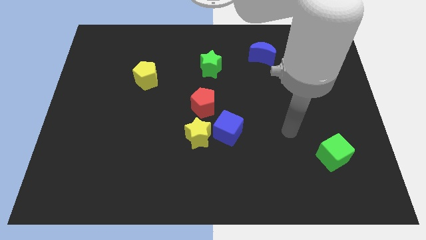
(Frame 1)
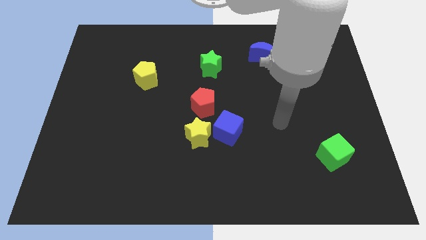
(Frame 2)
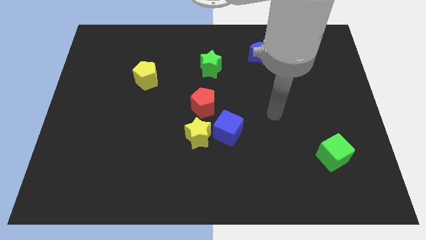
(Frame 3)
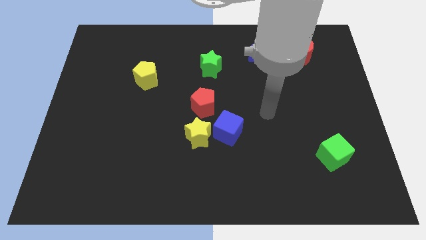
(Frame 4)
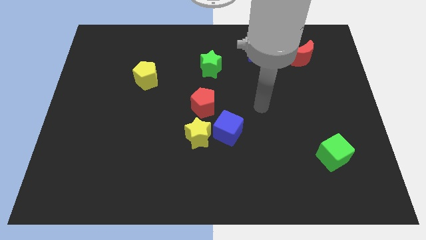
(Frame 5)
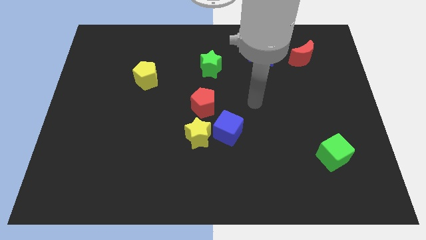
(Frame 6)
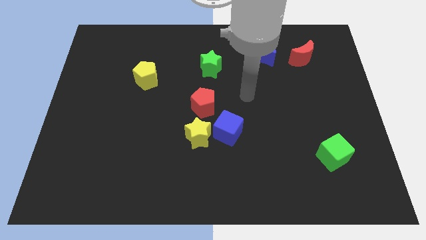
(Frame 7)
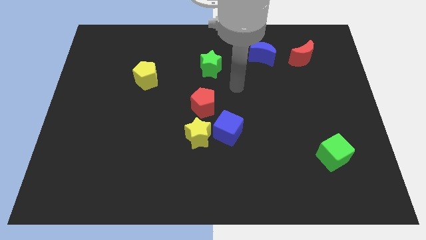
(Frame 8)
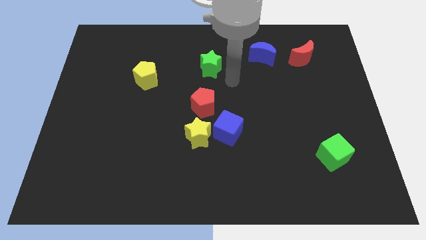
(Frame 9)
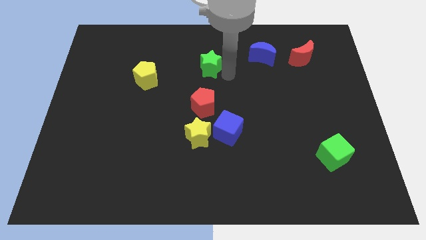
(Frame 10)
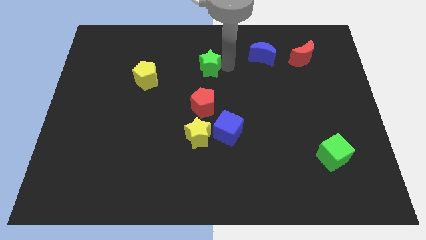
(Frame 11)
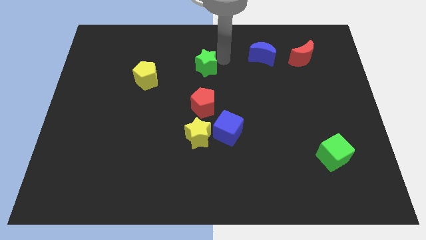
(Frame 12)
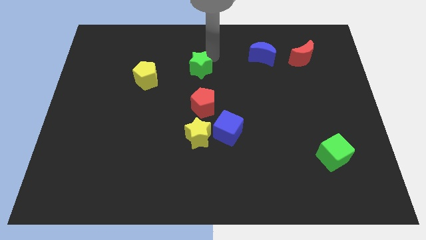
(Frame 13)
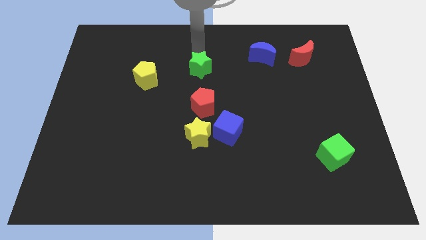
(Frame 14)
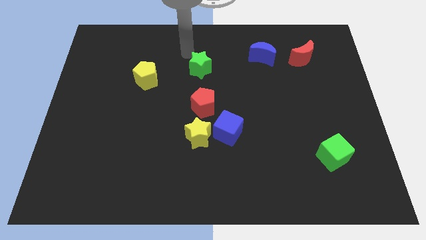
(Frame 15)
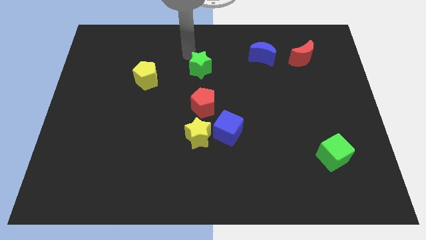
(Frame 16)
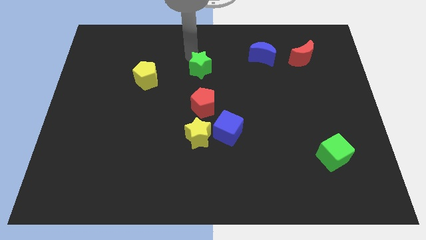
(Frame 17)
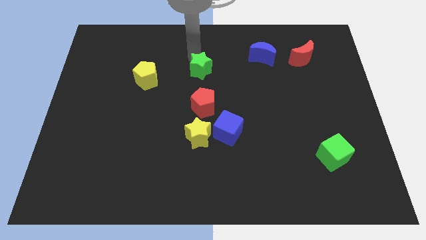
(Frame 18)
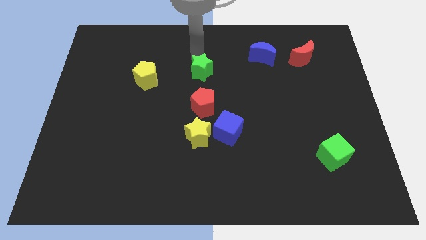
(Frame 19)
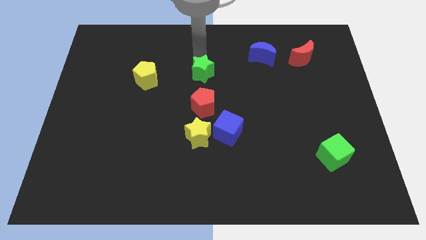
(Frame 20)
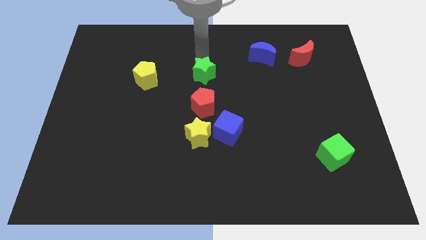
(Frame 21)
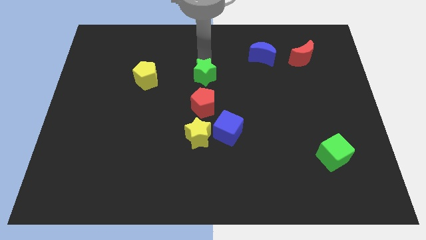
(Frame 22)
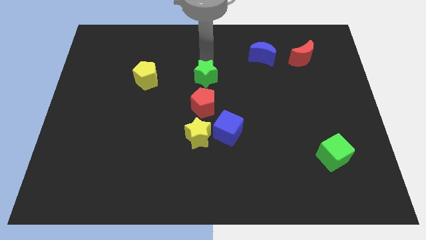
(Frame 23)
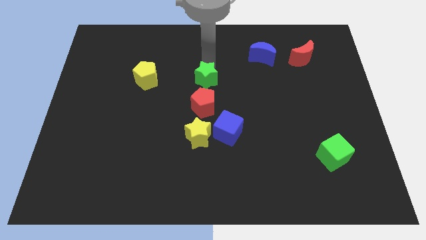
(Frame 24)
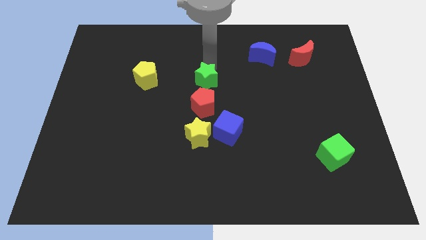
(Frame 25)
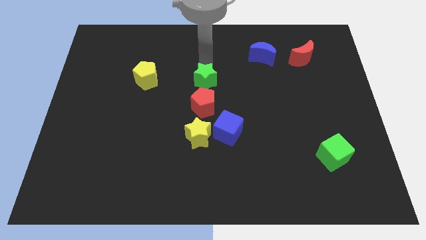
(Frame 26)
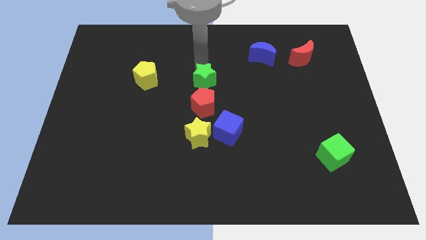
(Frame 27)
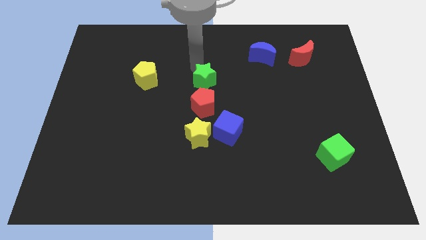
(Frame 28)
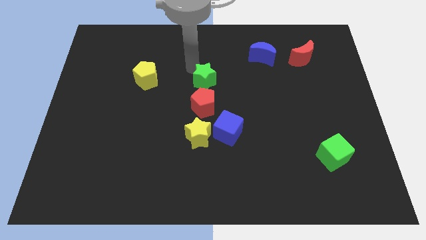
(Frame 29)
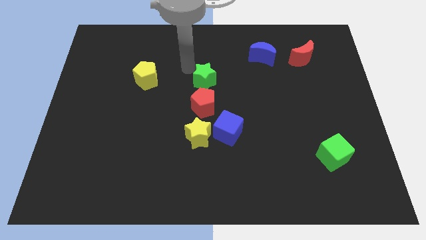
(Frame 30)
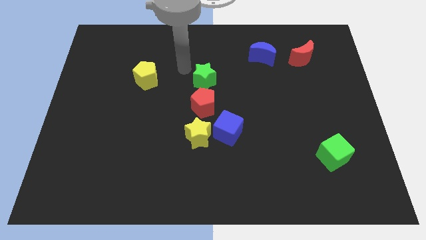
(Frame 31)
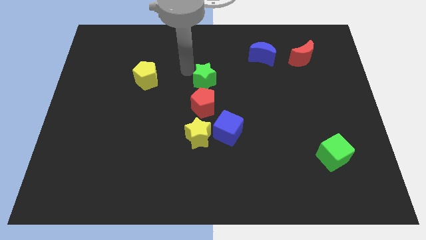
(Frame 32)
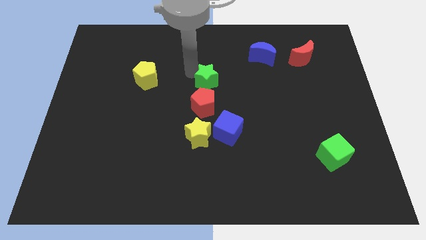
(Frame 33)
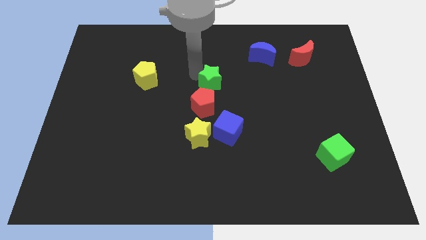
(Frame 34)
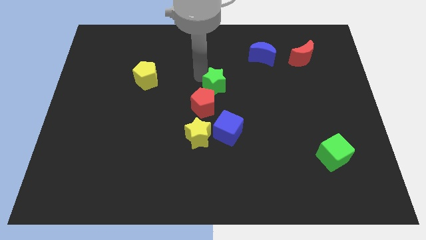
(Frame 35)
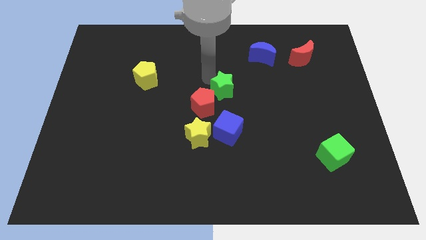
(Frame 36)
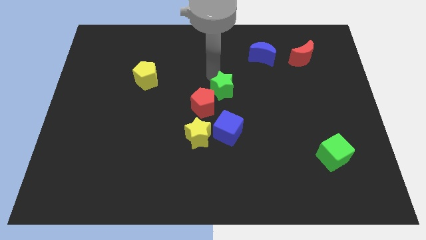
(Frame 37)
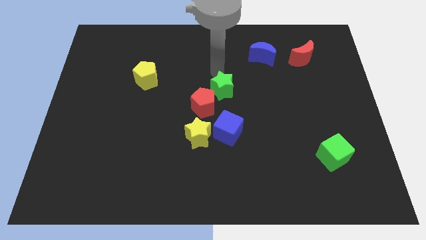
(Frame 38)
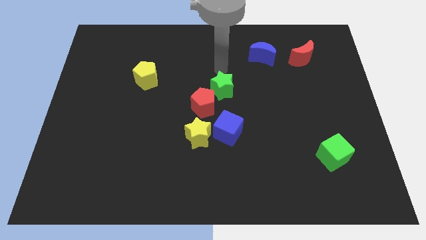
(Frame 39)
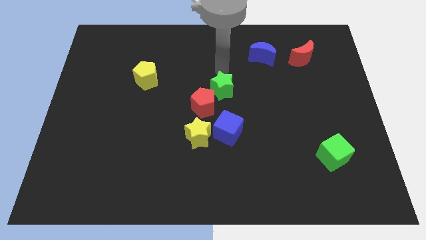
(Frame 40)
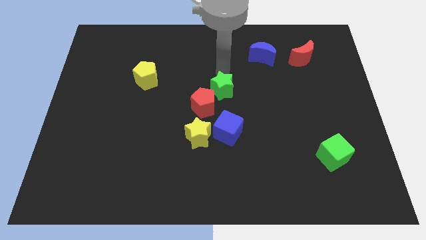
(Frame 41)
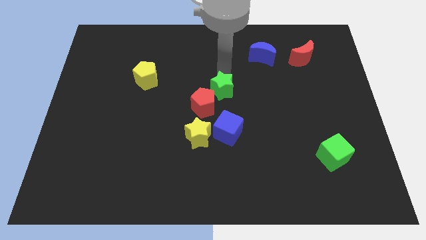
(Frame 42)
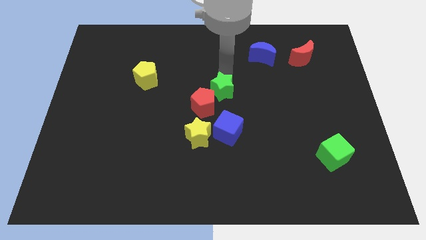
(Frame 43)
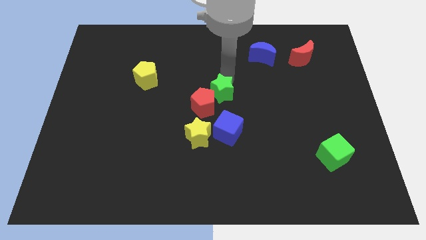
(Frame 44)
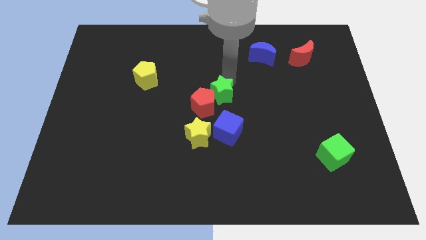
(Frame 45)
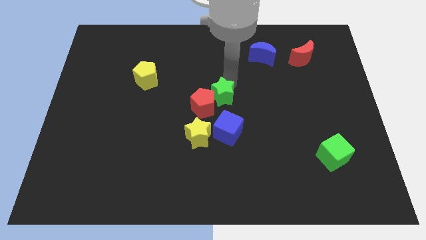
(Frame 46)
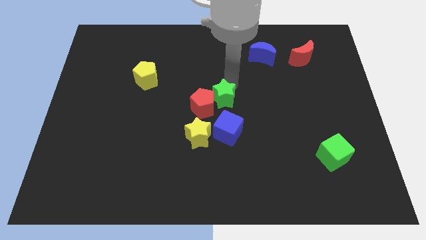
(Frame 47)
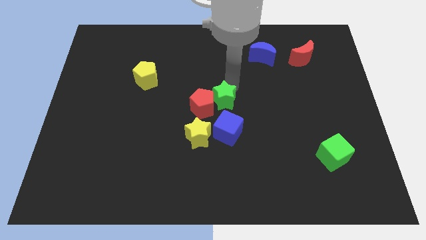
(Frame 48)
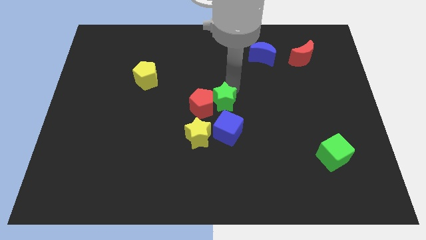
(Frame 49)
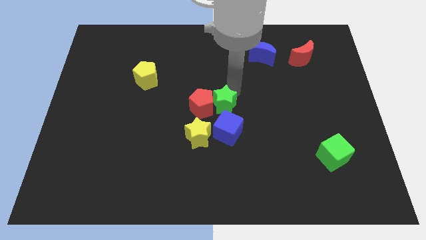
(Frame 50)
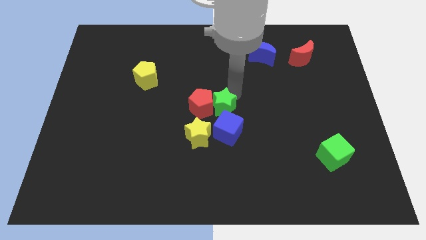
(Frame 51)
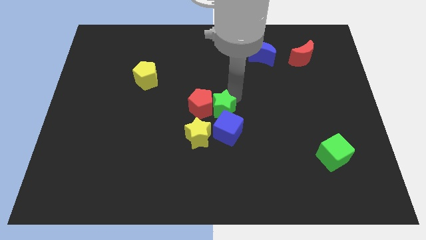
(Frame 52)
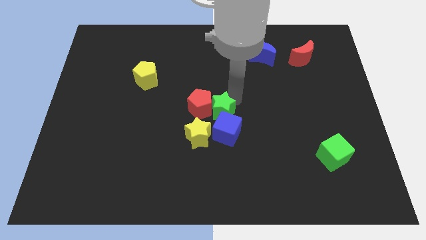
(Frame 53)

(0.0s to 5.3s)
move the green star close to the blue cube

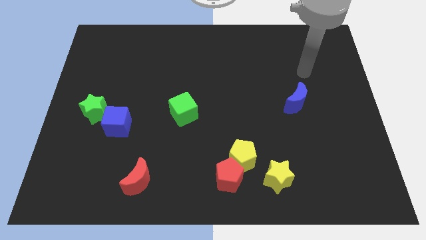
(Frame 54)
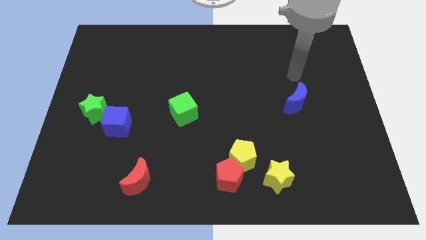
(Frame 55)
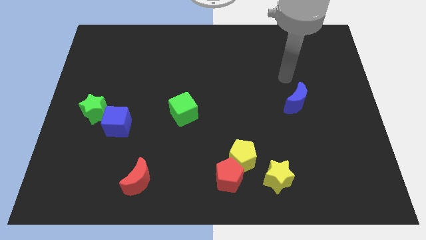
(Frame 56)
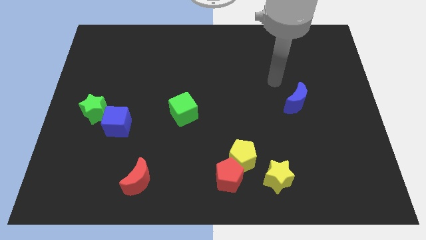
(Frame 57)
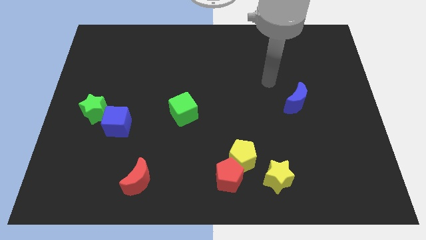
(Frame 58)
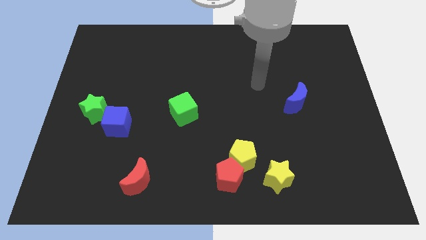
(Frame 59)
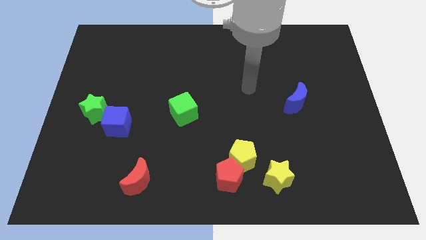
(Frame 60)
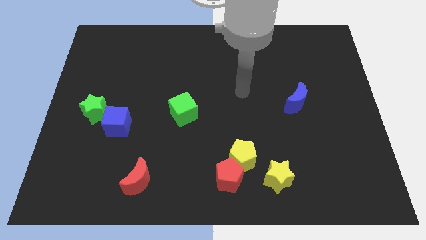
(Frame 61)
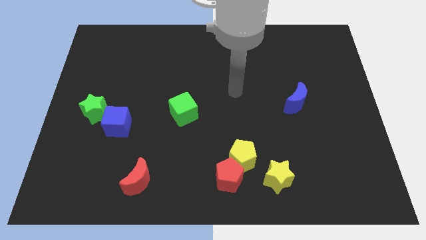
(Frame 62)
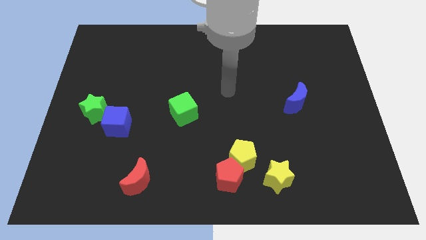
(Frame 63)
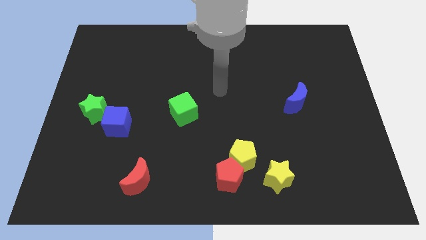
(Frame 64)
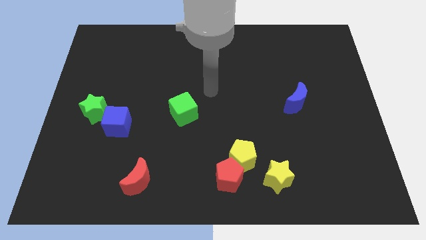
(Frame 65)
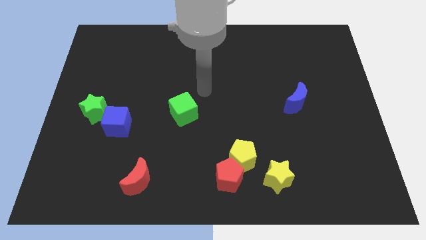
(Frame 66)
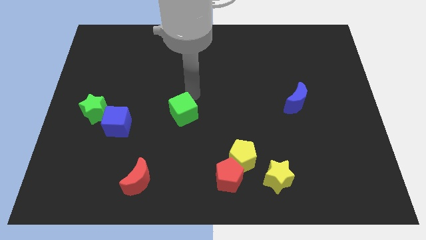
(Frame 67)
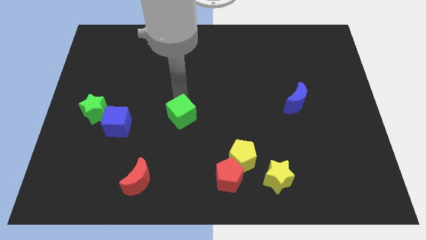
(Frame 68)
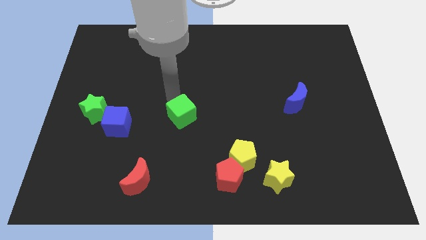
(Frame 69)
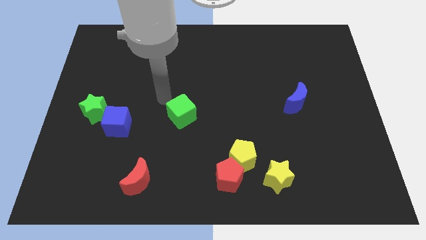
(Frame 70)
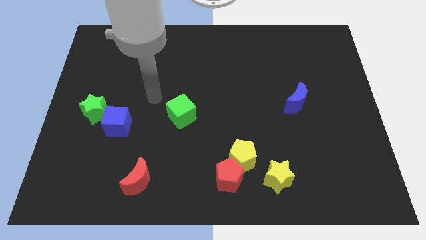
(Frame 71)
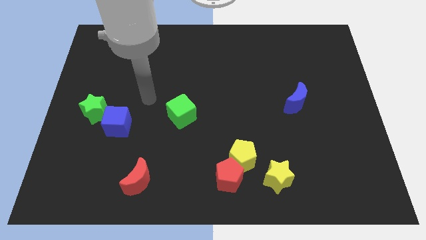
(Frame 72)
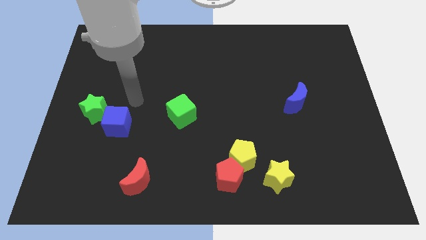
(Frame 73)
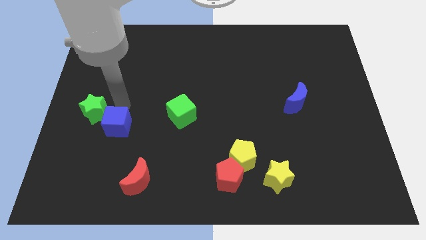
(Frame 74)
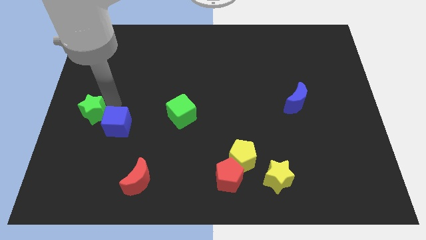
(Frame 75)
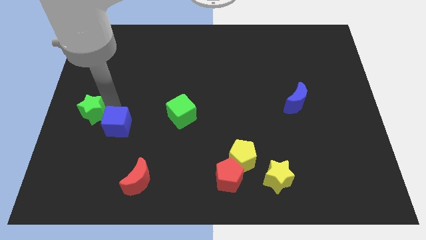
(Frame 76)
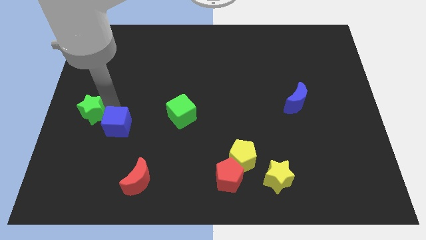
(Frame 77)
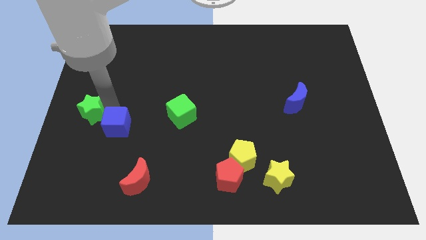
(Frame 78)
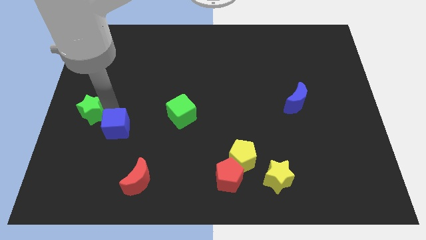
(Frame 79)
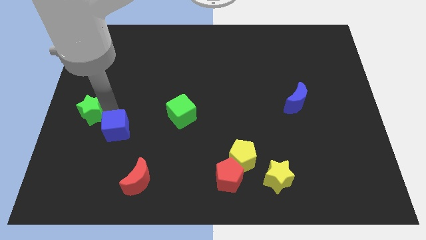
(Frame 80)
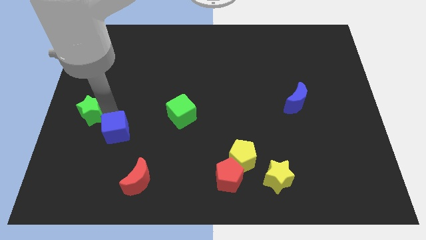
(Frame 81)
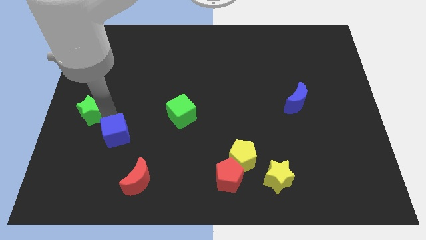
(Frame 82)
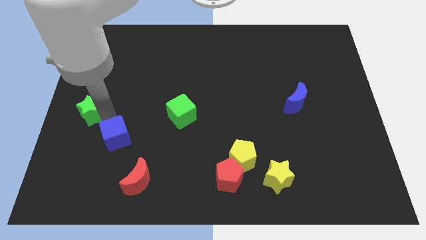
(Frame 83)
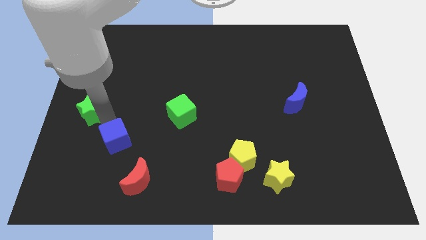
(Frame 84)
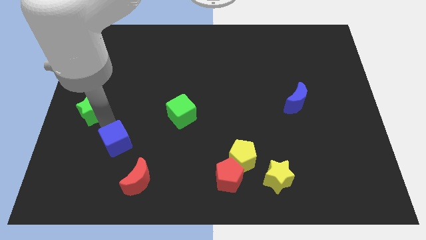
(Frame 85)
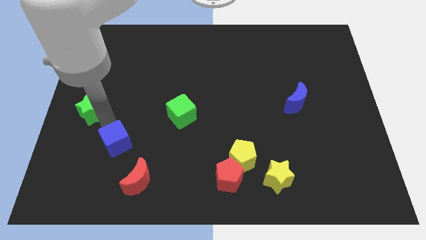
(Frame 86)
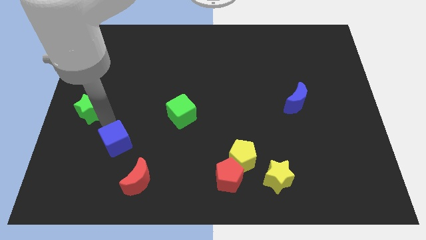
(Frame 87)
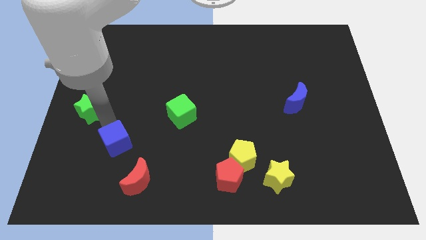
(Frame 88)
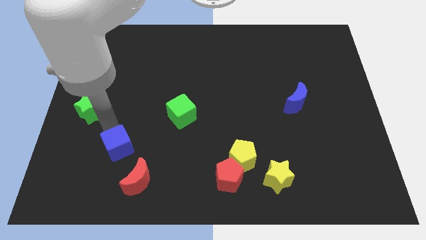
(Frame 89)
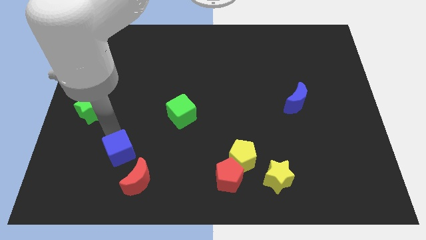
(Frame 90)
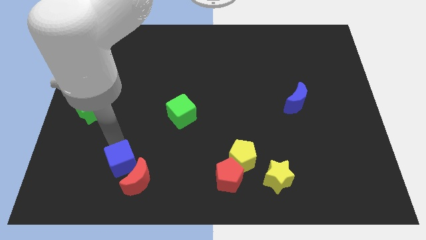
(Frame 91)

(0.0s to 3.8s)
push the blue cube close to the red moon
